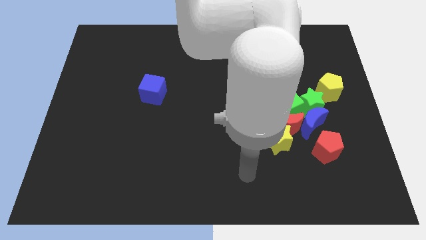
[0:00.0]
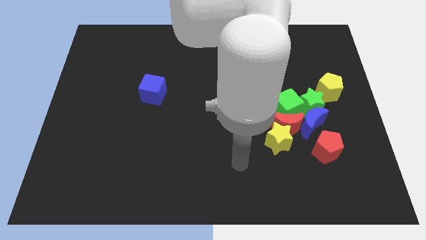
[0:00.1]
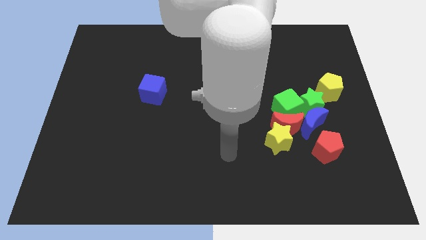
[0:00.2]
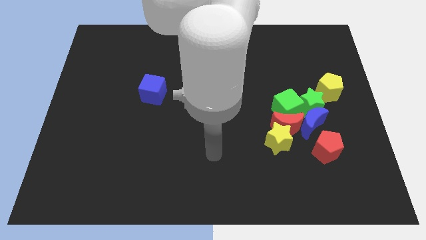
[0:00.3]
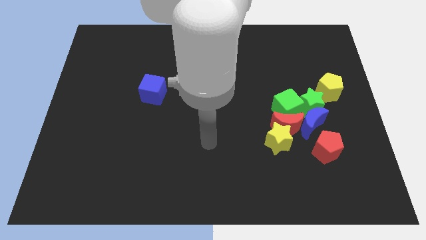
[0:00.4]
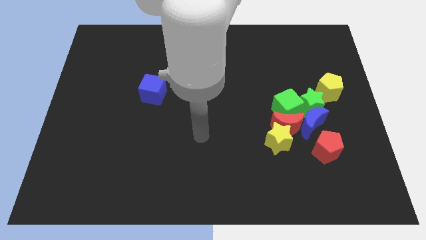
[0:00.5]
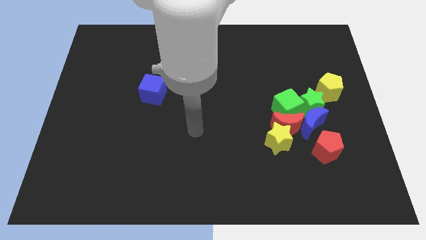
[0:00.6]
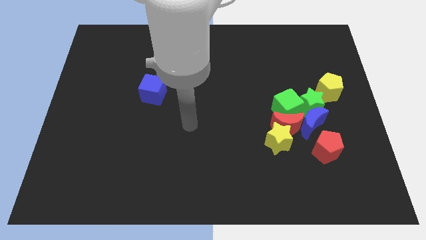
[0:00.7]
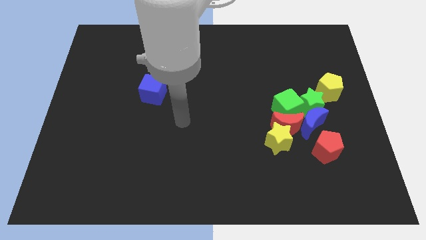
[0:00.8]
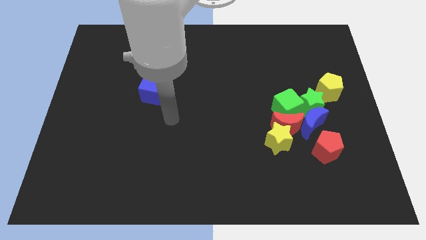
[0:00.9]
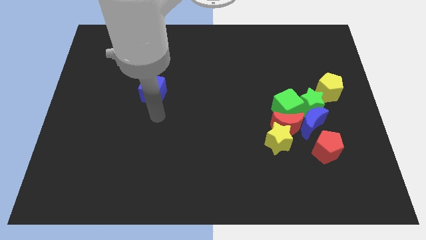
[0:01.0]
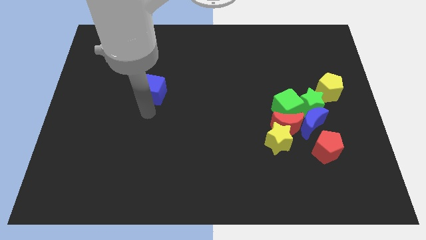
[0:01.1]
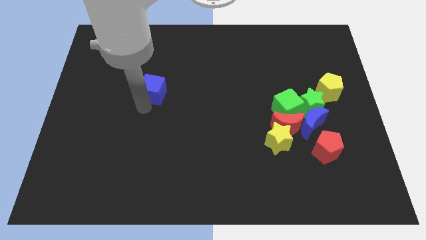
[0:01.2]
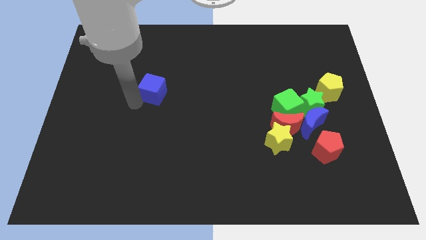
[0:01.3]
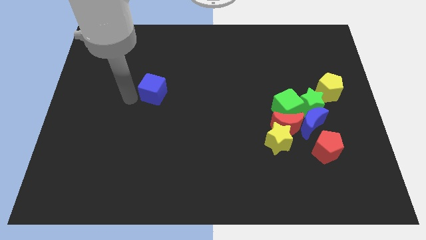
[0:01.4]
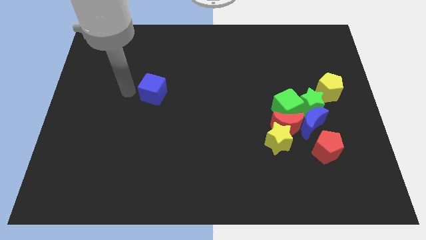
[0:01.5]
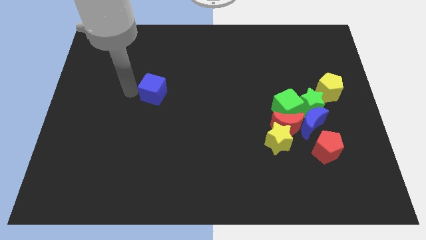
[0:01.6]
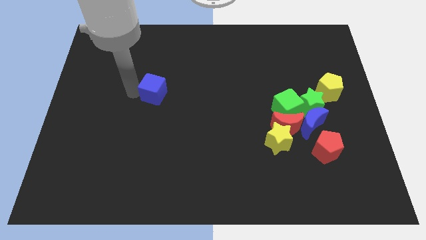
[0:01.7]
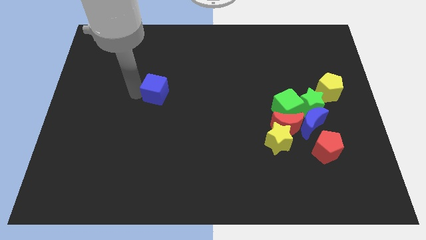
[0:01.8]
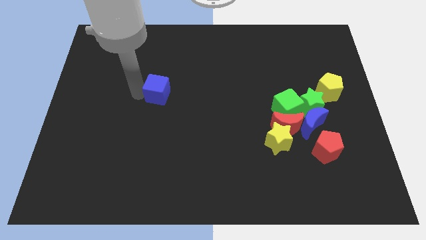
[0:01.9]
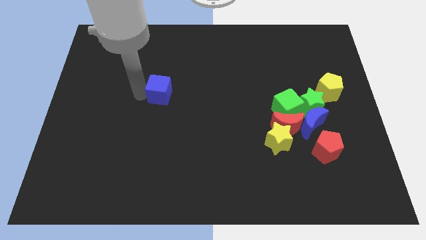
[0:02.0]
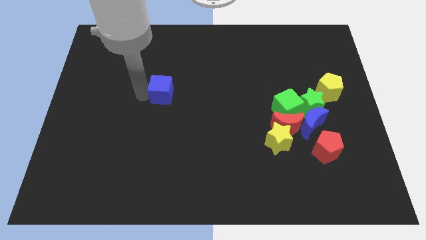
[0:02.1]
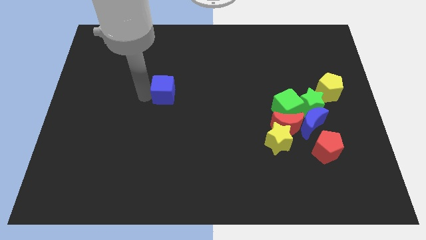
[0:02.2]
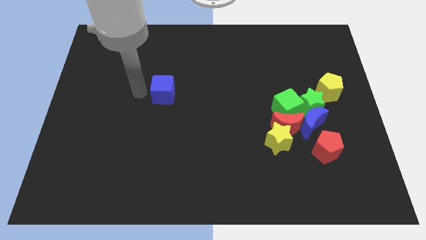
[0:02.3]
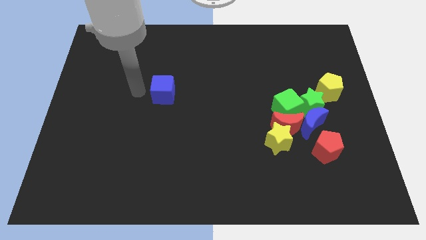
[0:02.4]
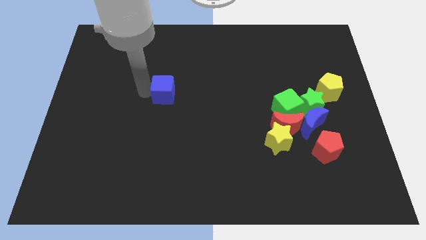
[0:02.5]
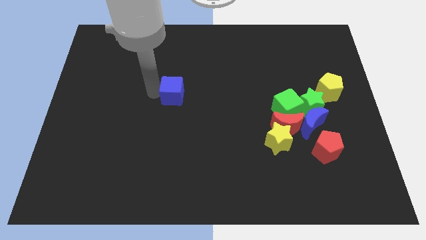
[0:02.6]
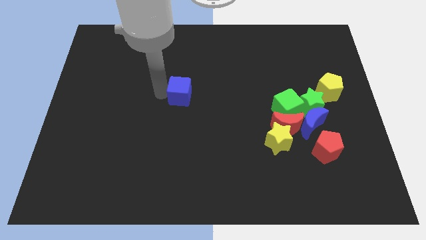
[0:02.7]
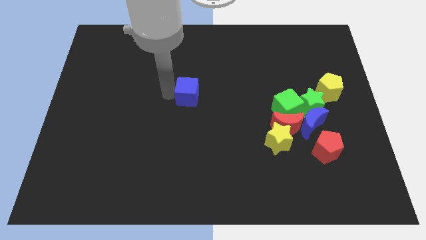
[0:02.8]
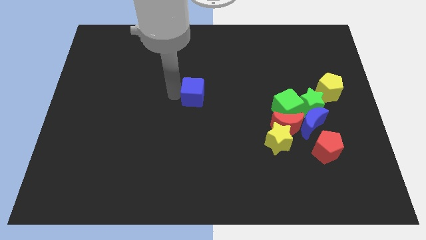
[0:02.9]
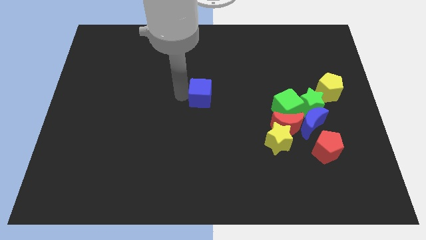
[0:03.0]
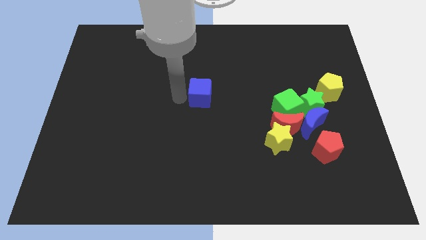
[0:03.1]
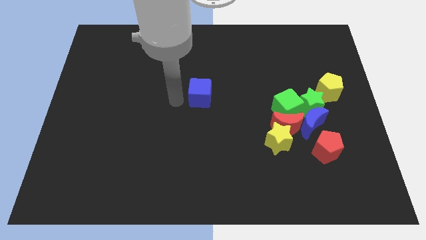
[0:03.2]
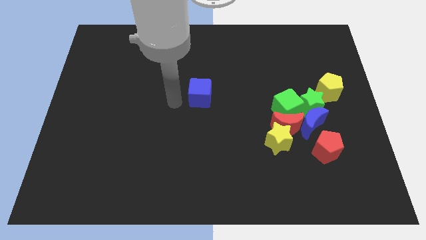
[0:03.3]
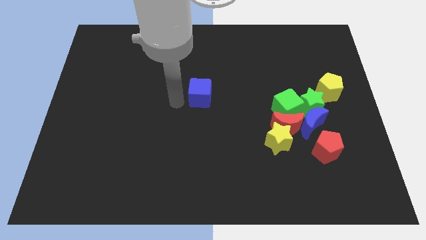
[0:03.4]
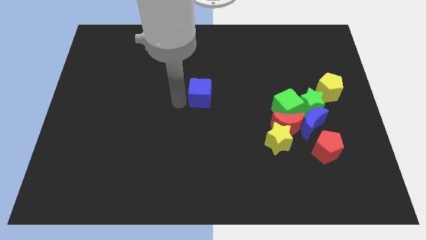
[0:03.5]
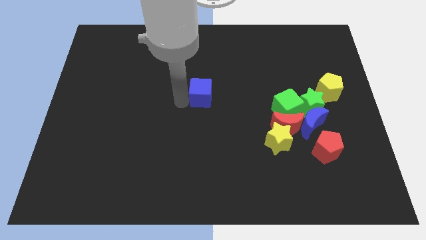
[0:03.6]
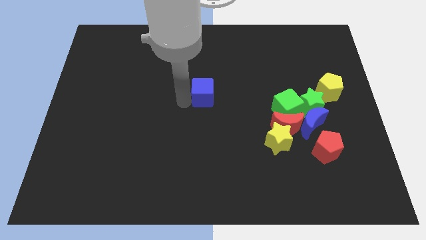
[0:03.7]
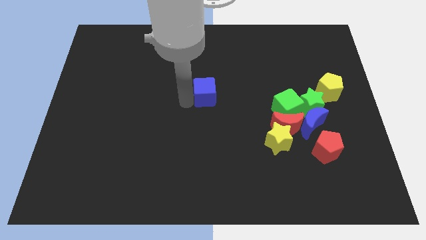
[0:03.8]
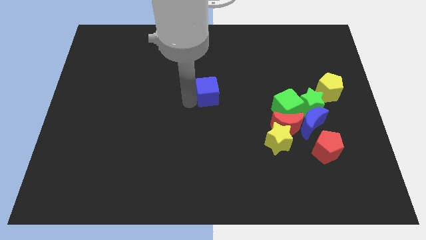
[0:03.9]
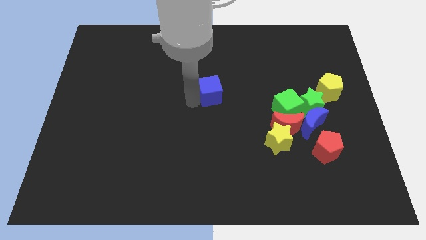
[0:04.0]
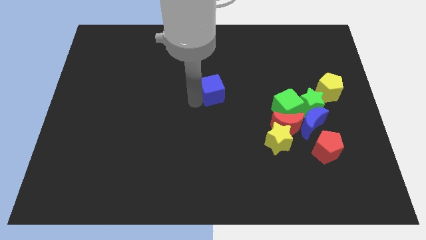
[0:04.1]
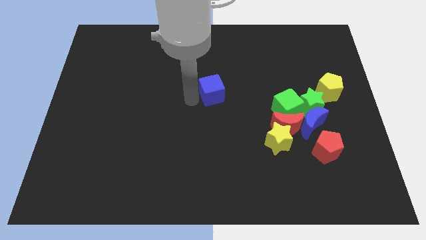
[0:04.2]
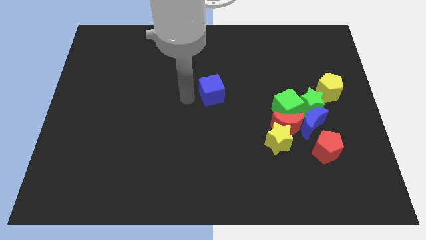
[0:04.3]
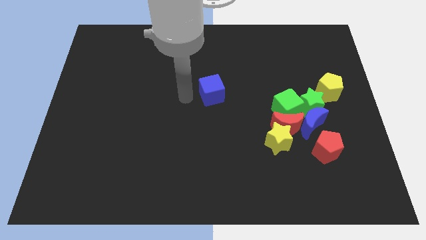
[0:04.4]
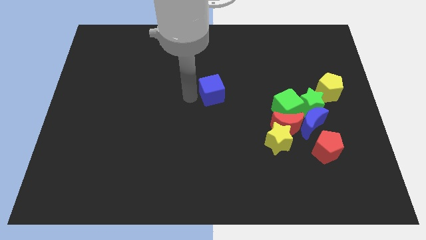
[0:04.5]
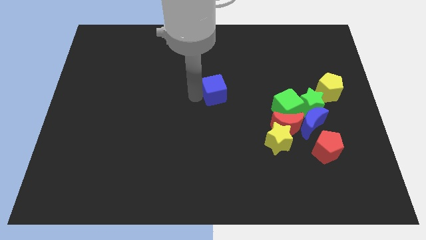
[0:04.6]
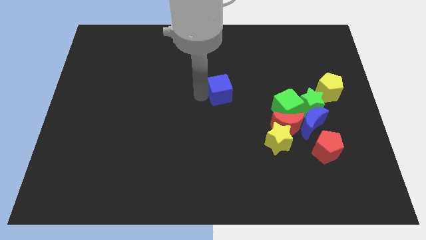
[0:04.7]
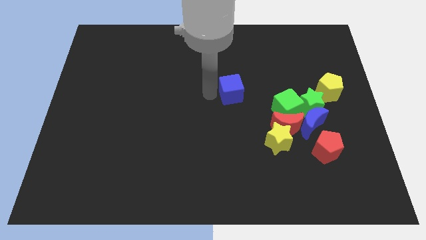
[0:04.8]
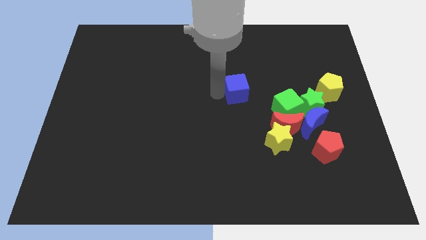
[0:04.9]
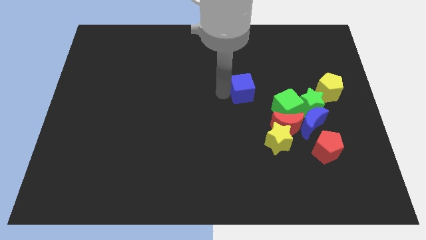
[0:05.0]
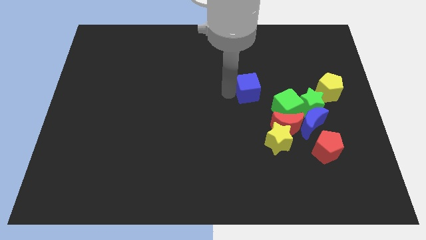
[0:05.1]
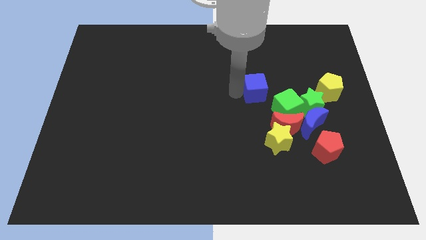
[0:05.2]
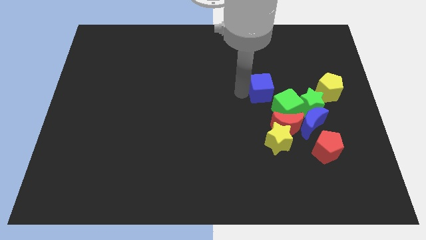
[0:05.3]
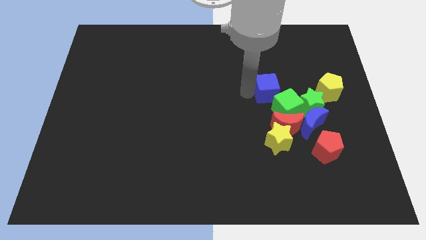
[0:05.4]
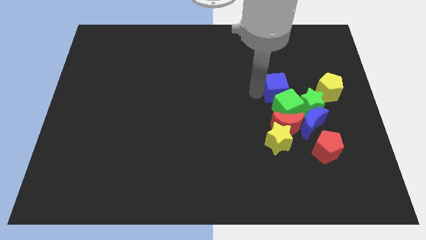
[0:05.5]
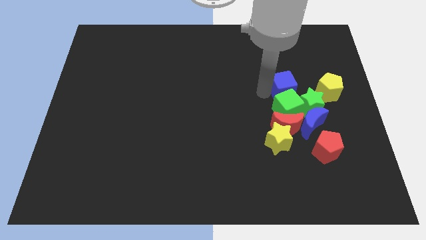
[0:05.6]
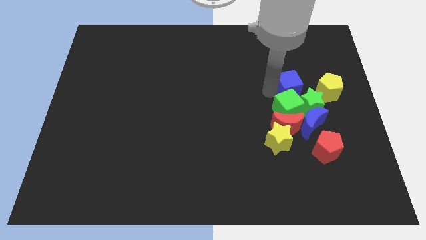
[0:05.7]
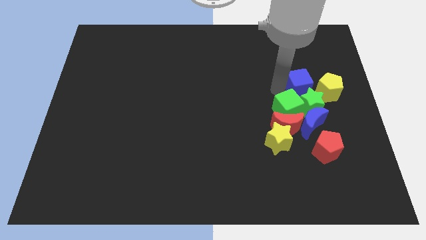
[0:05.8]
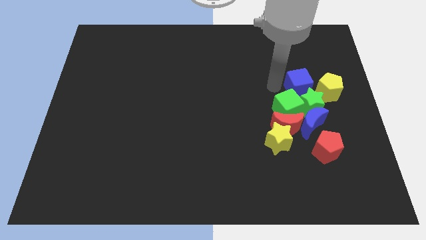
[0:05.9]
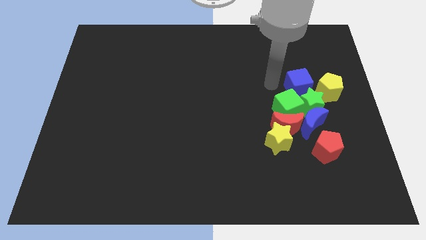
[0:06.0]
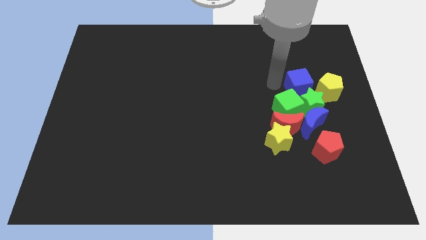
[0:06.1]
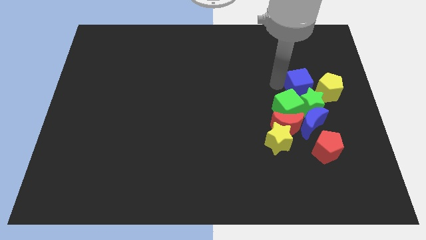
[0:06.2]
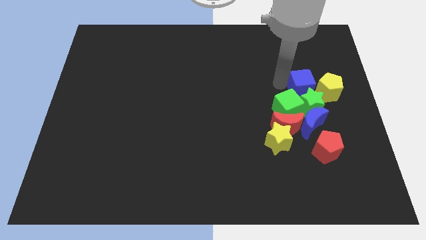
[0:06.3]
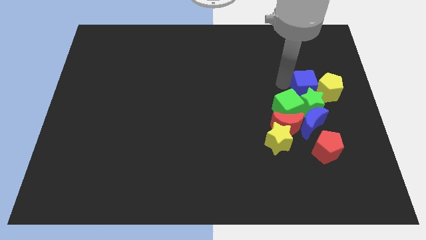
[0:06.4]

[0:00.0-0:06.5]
push the blue cube next to the yellow pentagon

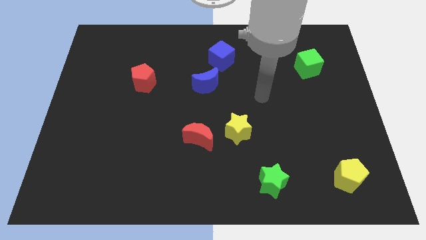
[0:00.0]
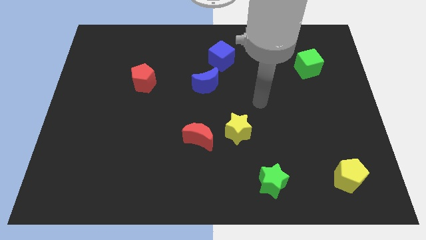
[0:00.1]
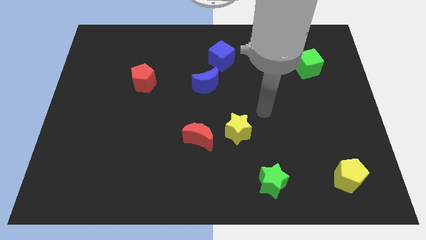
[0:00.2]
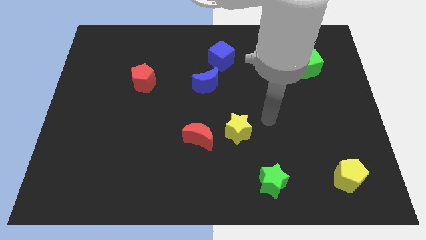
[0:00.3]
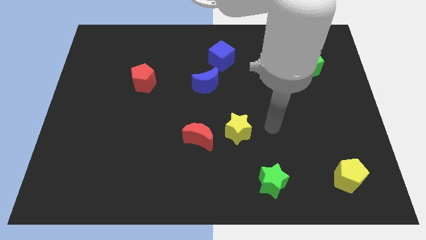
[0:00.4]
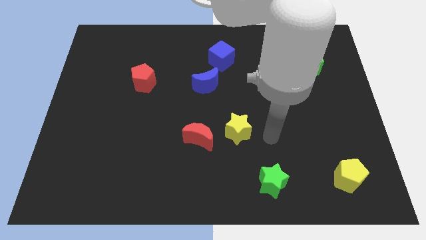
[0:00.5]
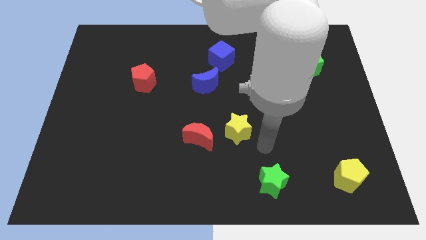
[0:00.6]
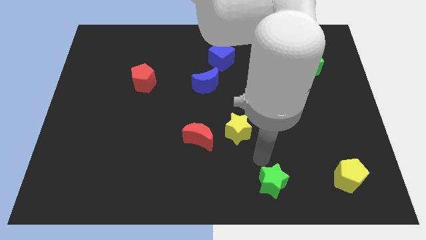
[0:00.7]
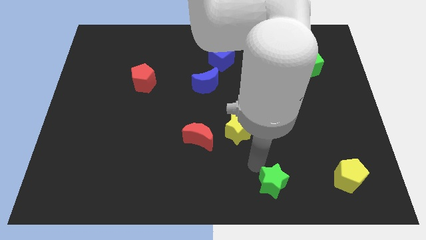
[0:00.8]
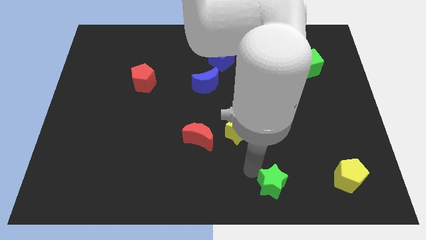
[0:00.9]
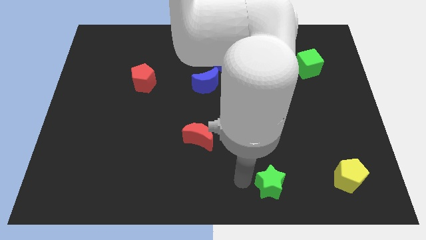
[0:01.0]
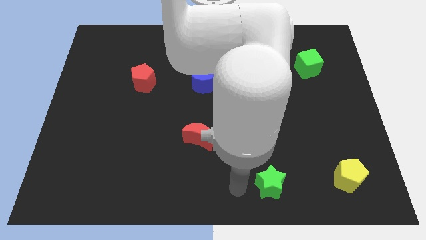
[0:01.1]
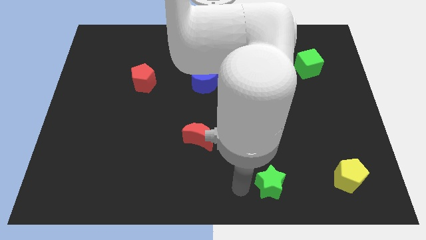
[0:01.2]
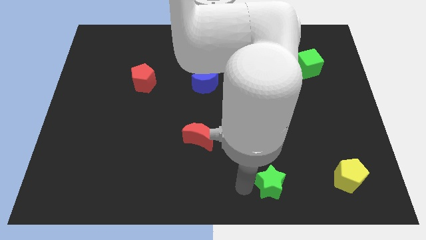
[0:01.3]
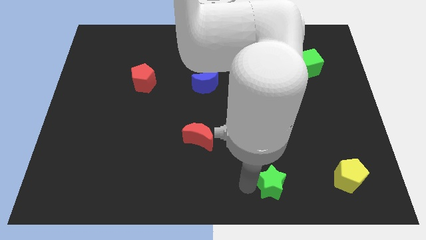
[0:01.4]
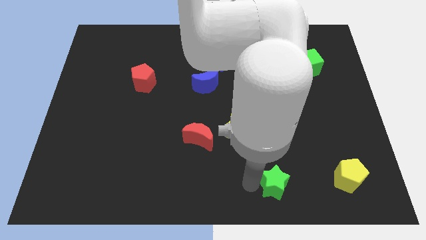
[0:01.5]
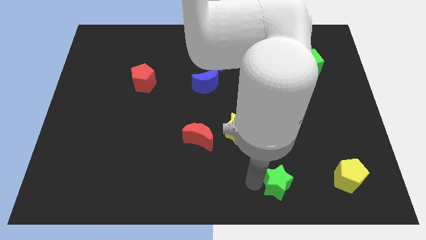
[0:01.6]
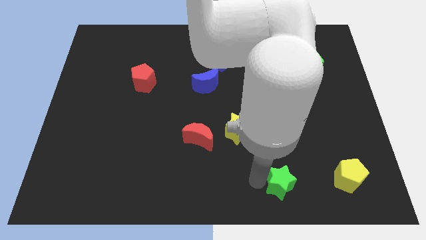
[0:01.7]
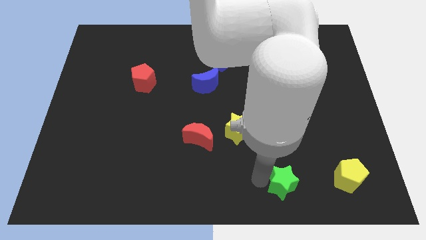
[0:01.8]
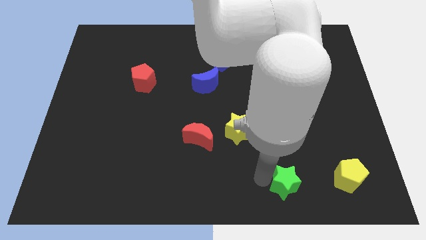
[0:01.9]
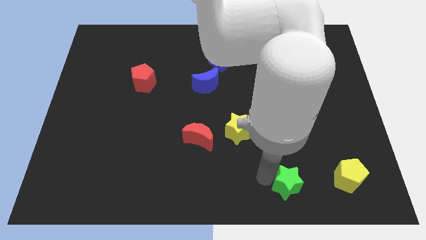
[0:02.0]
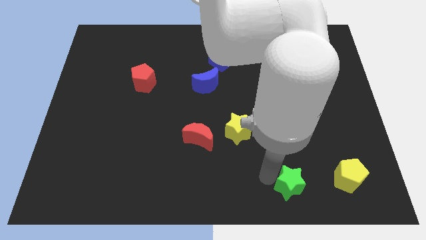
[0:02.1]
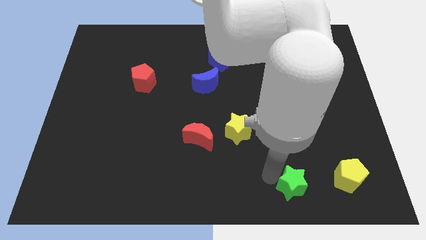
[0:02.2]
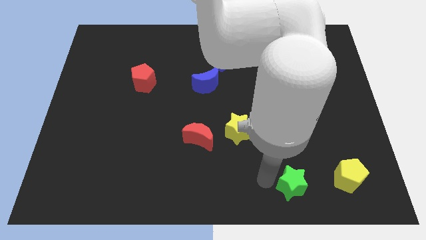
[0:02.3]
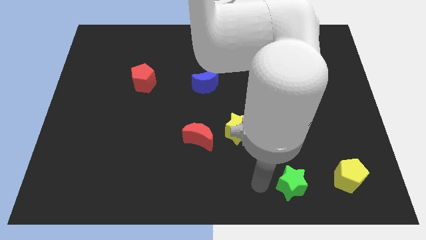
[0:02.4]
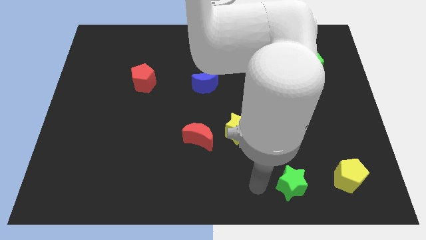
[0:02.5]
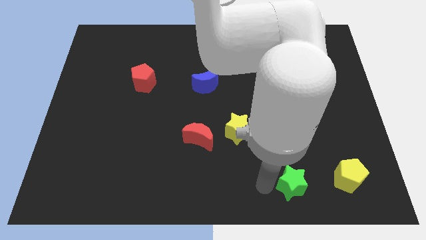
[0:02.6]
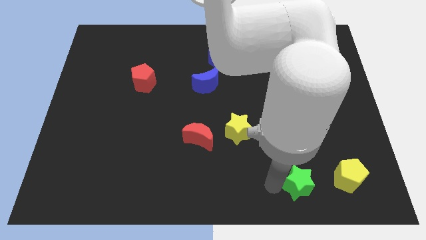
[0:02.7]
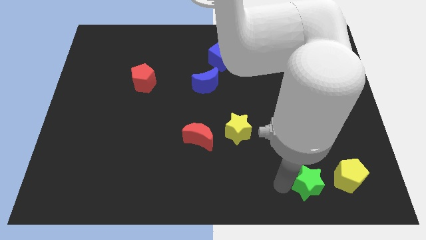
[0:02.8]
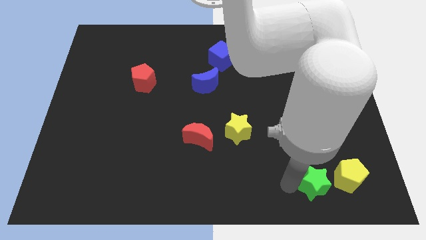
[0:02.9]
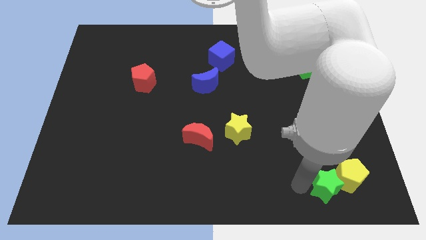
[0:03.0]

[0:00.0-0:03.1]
slide the green star towards the yellow pentagon
